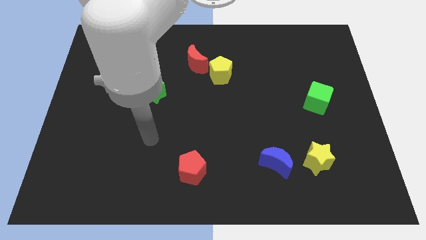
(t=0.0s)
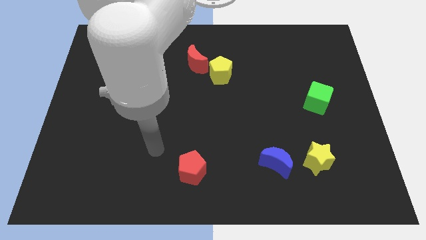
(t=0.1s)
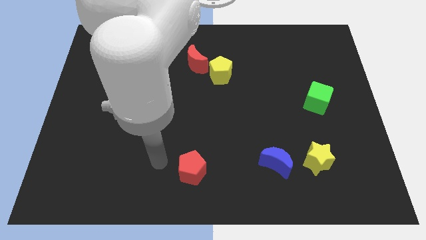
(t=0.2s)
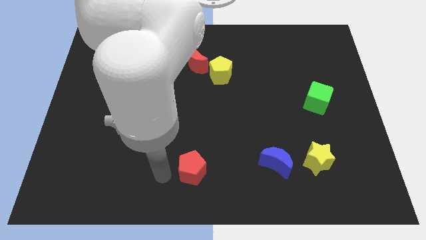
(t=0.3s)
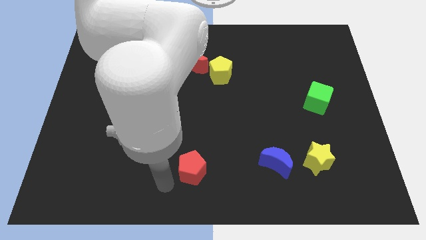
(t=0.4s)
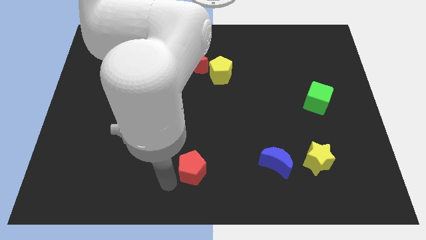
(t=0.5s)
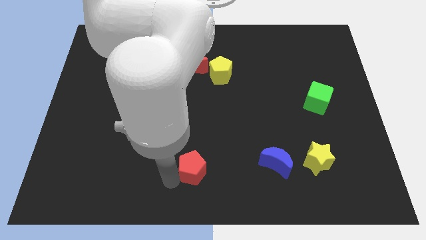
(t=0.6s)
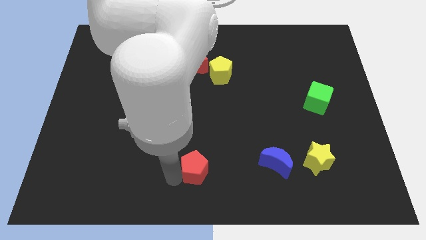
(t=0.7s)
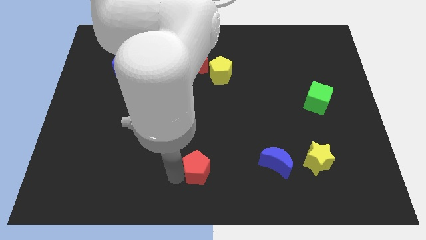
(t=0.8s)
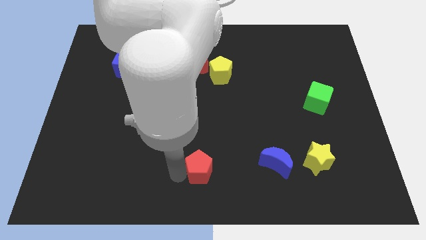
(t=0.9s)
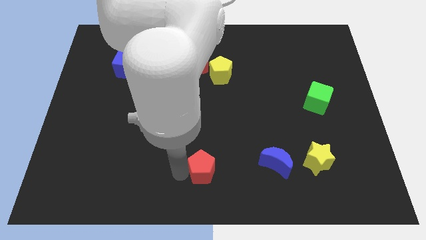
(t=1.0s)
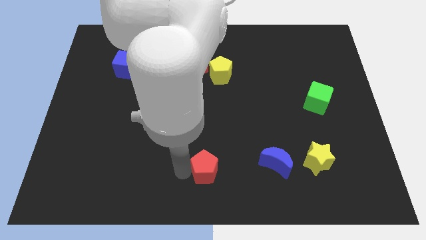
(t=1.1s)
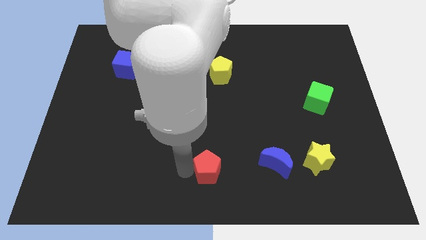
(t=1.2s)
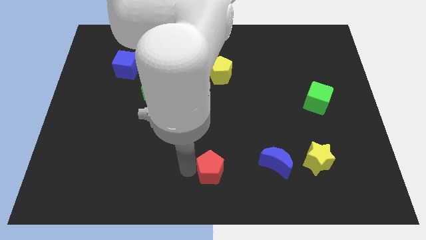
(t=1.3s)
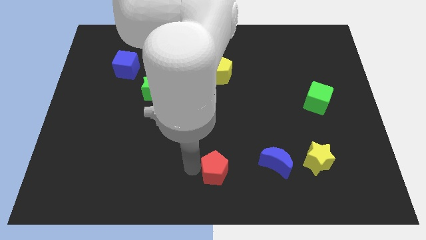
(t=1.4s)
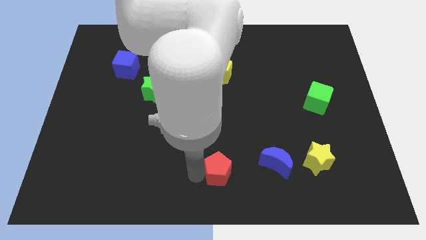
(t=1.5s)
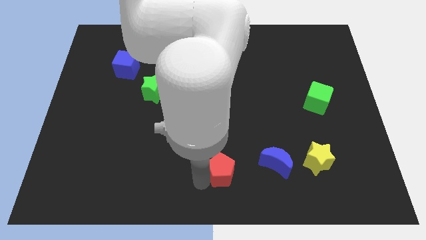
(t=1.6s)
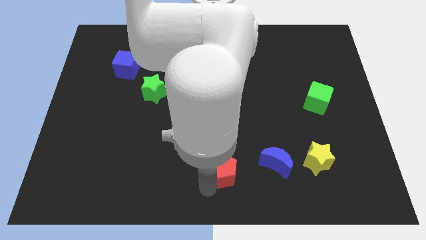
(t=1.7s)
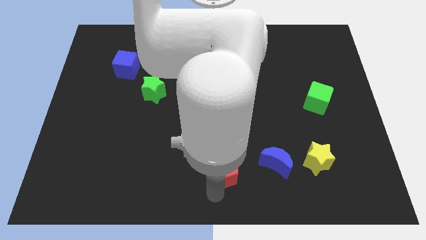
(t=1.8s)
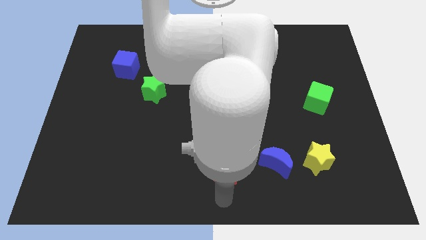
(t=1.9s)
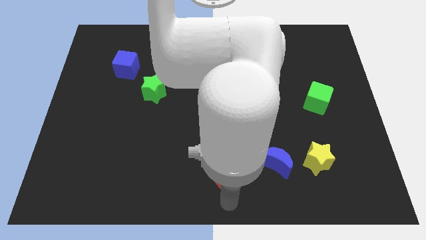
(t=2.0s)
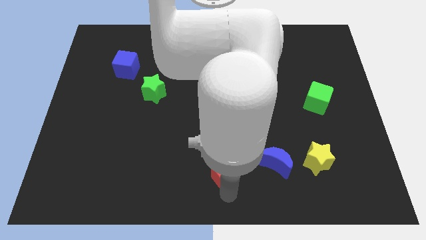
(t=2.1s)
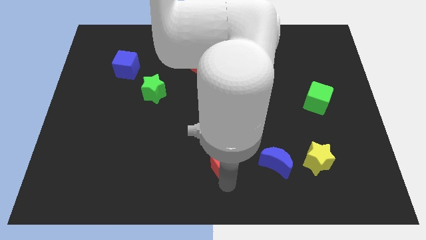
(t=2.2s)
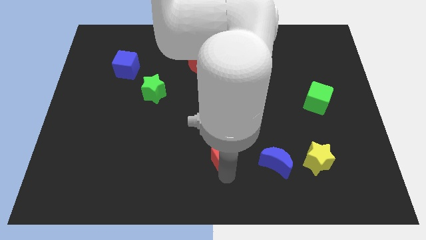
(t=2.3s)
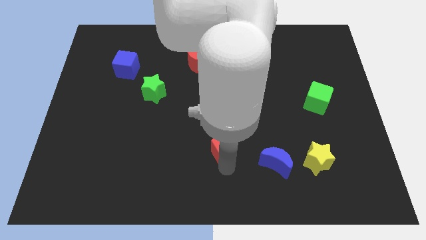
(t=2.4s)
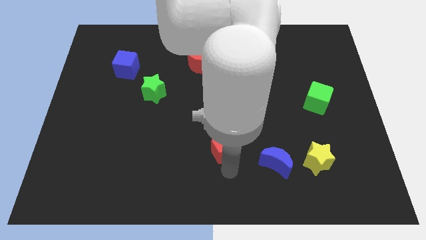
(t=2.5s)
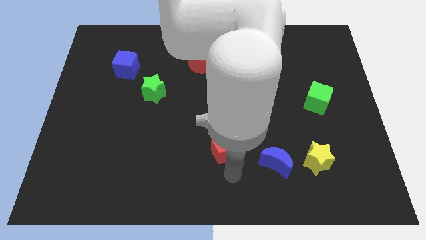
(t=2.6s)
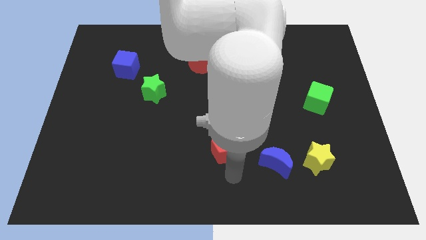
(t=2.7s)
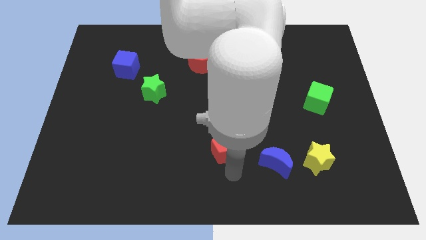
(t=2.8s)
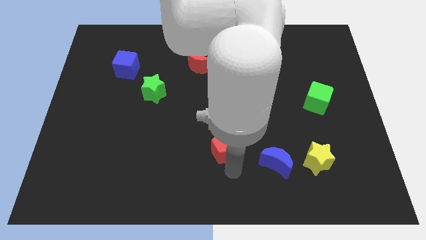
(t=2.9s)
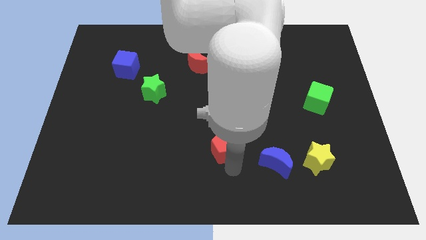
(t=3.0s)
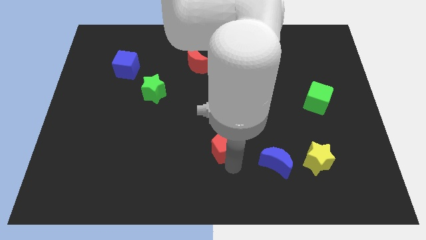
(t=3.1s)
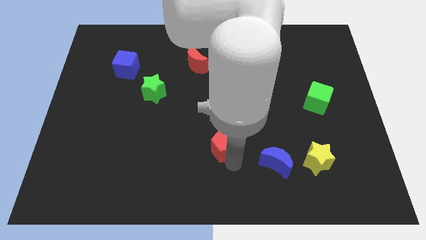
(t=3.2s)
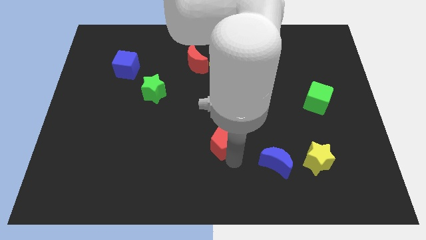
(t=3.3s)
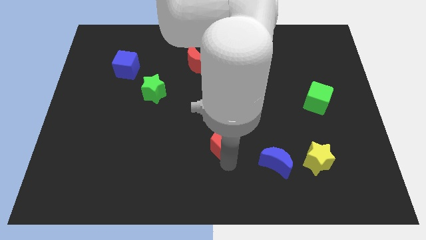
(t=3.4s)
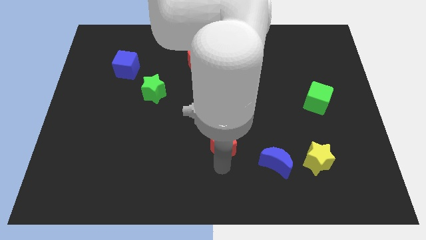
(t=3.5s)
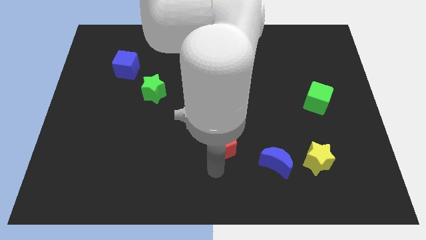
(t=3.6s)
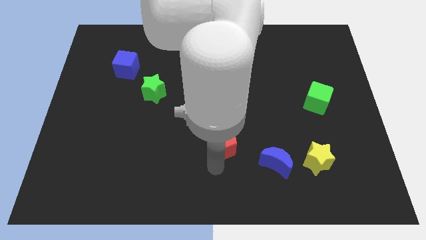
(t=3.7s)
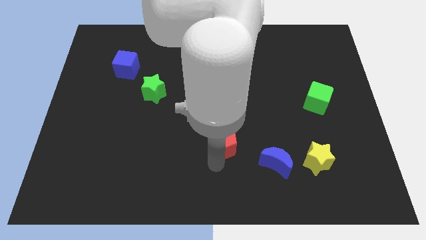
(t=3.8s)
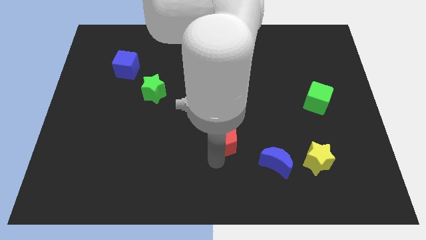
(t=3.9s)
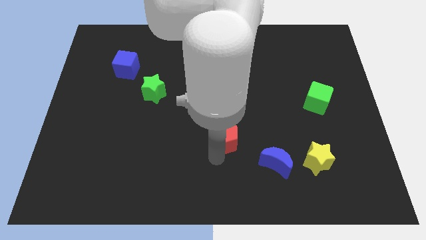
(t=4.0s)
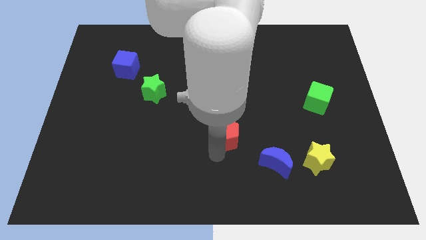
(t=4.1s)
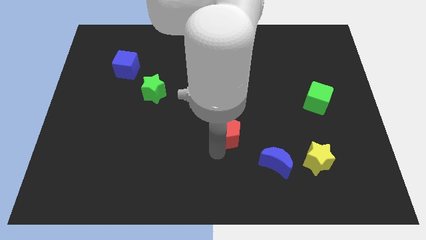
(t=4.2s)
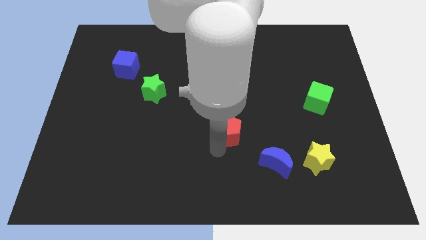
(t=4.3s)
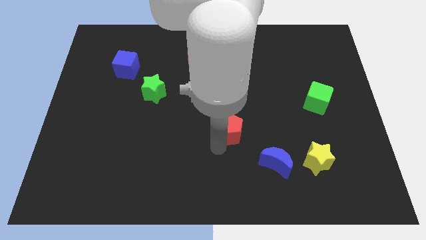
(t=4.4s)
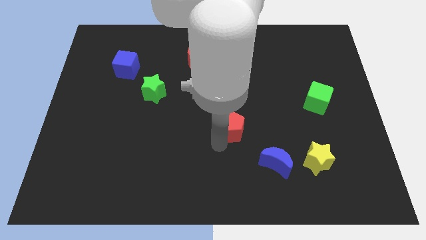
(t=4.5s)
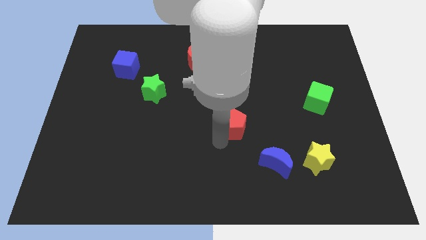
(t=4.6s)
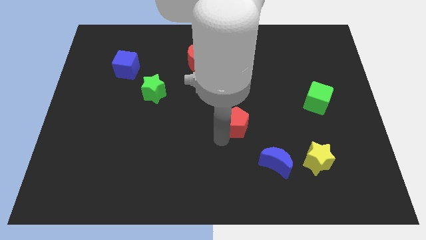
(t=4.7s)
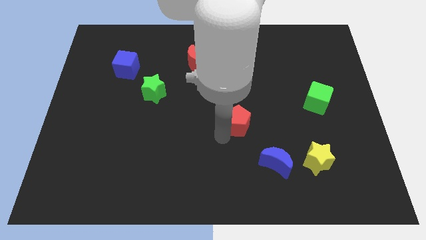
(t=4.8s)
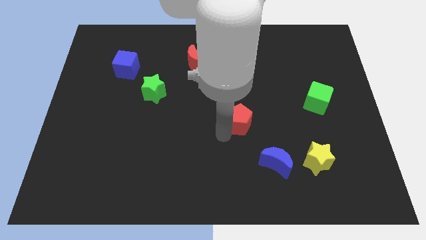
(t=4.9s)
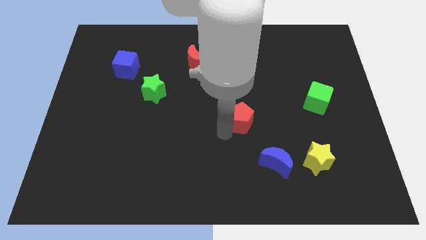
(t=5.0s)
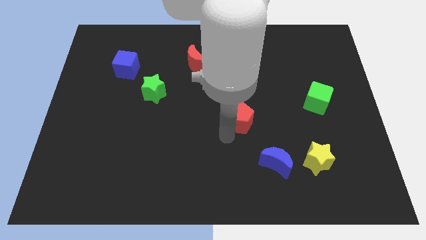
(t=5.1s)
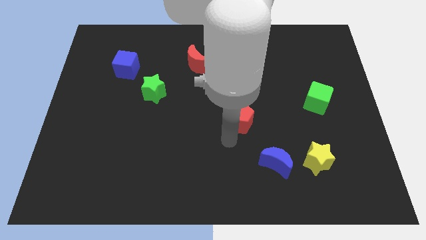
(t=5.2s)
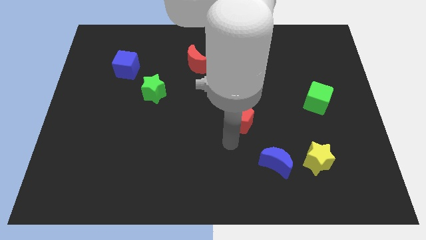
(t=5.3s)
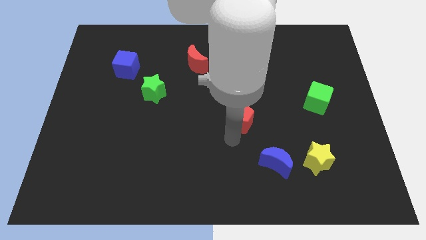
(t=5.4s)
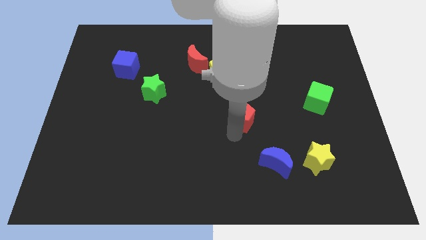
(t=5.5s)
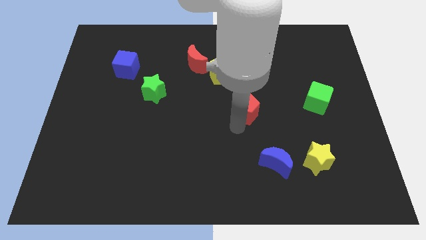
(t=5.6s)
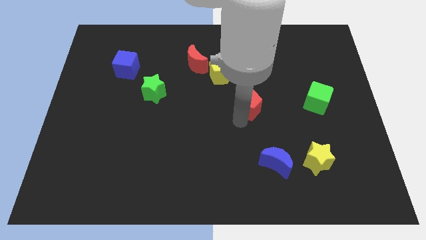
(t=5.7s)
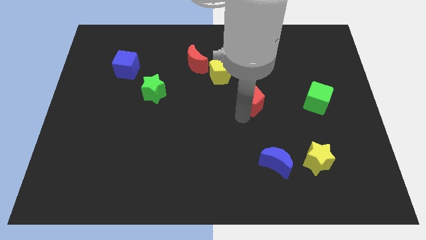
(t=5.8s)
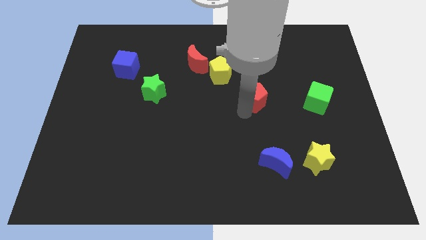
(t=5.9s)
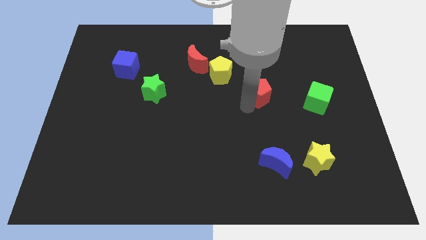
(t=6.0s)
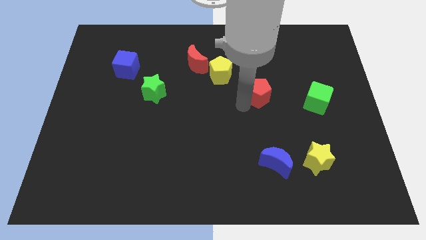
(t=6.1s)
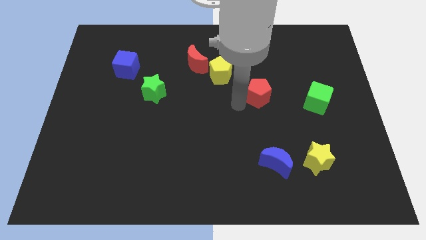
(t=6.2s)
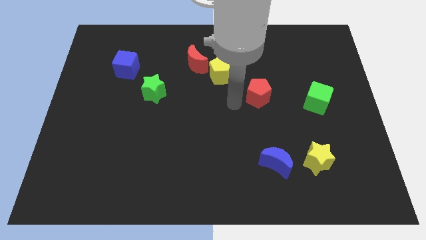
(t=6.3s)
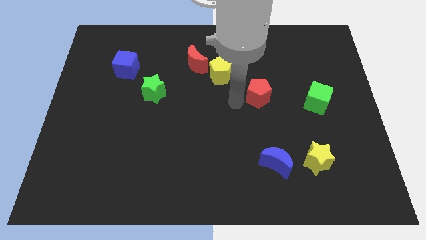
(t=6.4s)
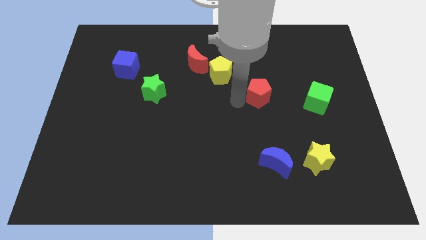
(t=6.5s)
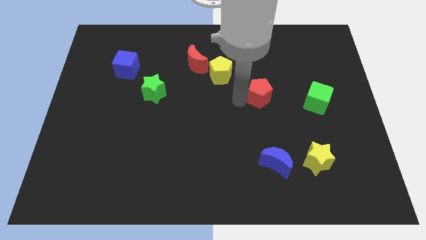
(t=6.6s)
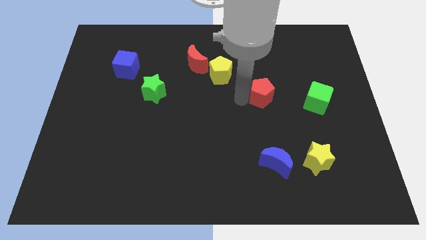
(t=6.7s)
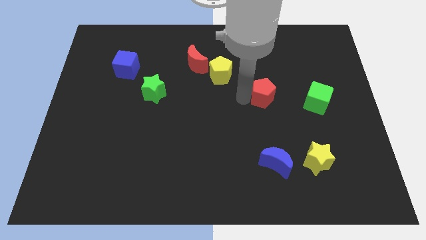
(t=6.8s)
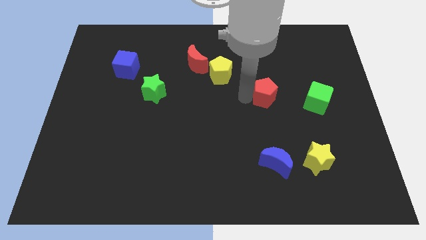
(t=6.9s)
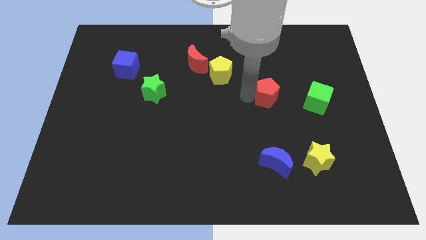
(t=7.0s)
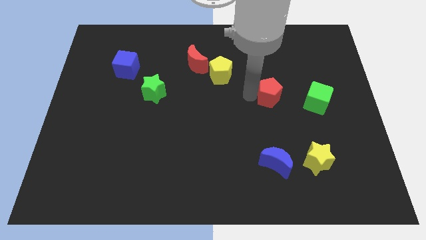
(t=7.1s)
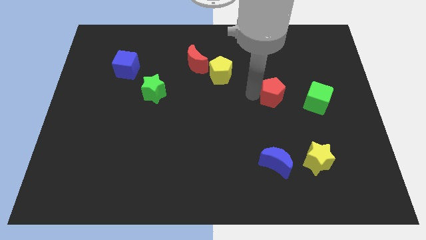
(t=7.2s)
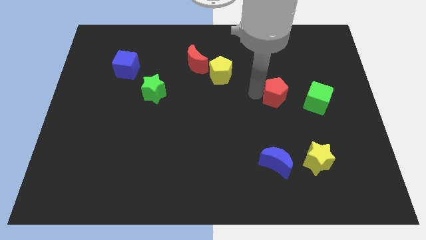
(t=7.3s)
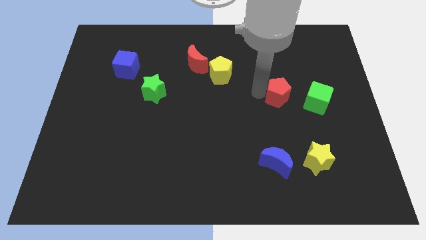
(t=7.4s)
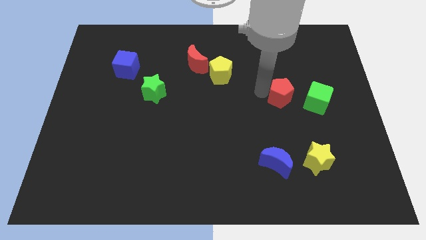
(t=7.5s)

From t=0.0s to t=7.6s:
push the red pentagon to the top left of the green cube

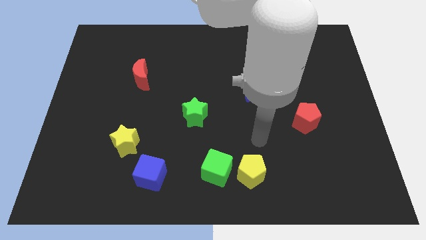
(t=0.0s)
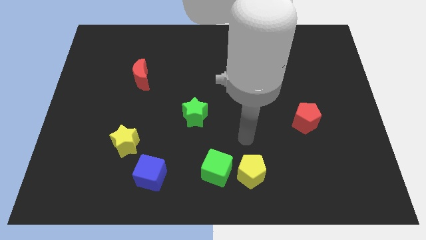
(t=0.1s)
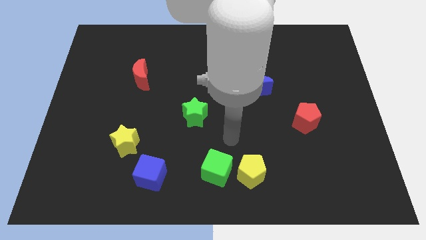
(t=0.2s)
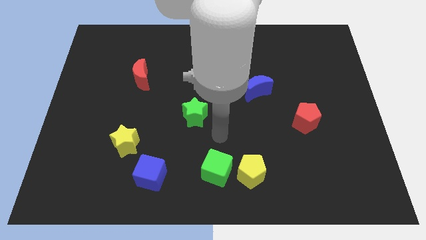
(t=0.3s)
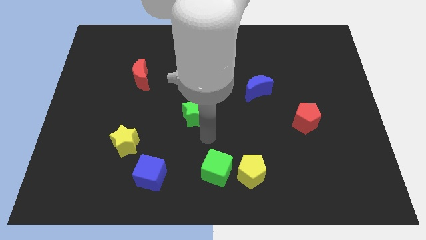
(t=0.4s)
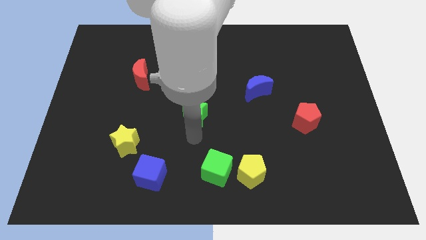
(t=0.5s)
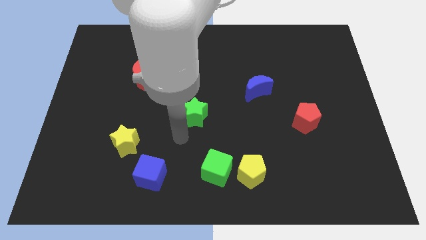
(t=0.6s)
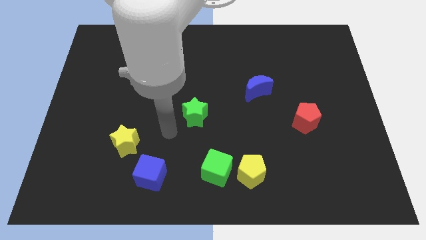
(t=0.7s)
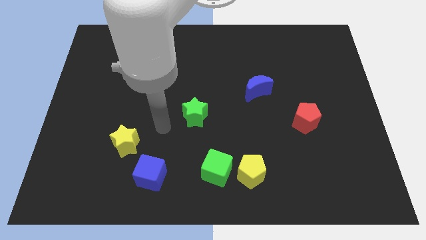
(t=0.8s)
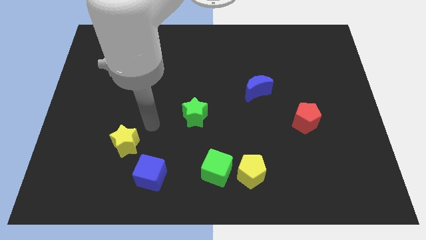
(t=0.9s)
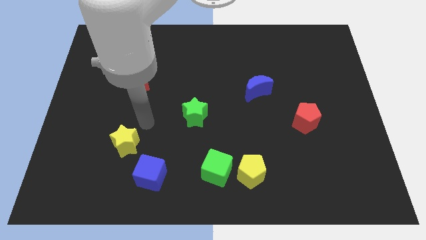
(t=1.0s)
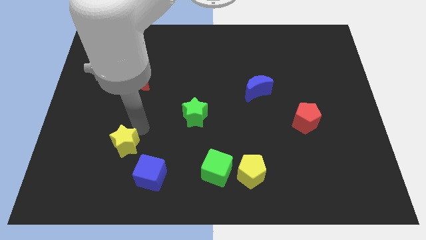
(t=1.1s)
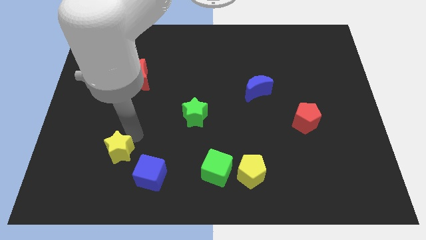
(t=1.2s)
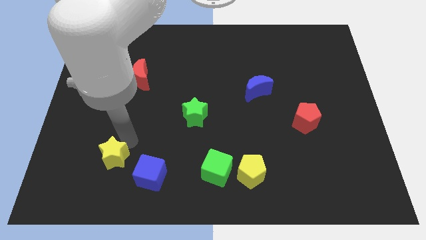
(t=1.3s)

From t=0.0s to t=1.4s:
slide the yellow star just left of the blue cube
